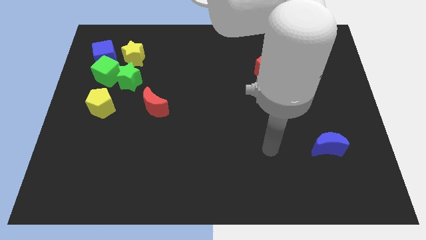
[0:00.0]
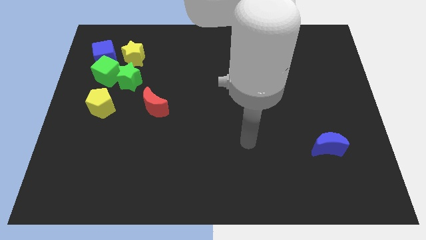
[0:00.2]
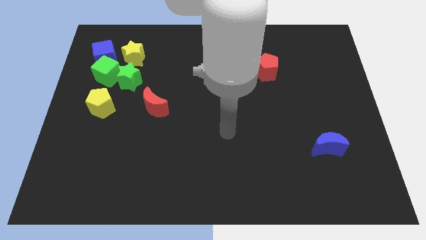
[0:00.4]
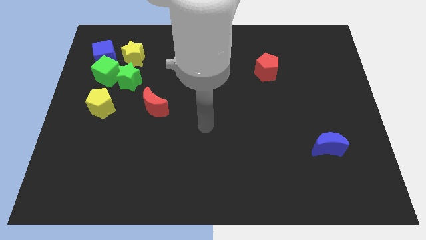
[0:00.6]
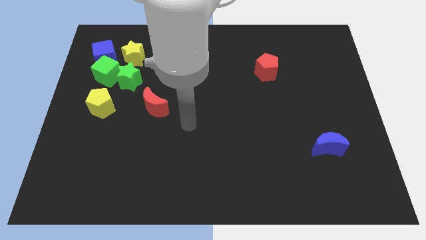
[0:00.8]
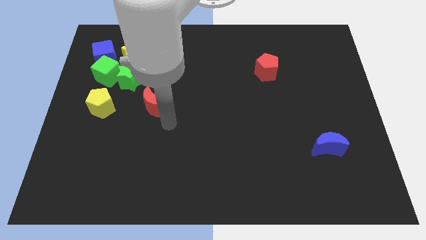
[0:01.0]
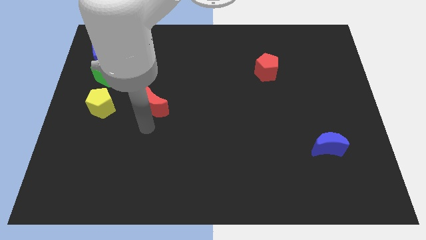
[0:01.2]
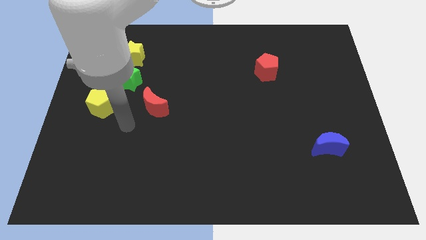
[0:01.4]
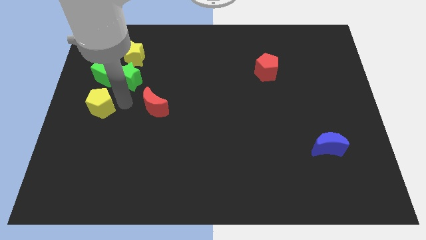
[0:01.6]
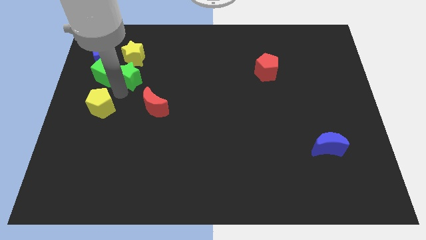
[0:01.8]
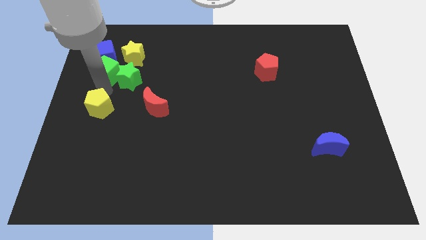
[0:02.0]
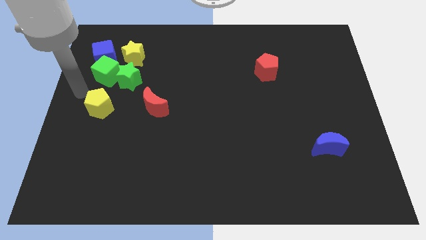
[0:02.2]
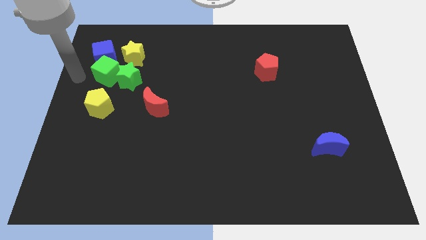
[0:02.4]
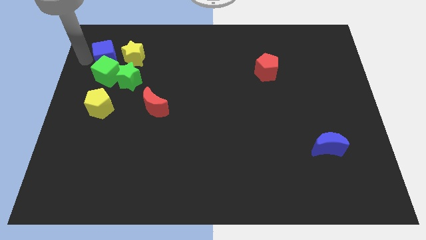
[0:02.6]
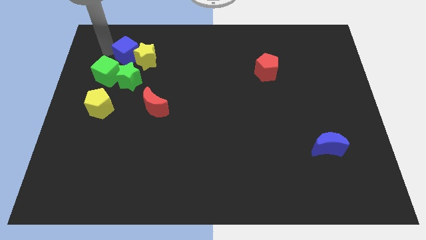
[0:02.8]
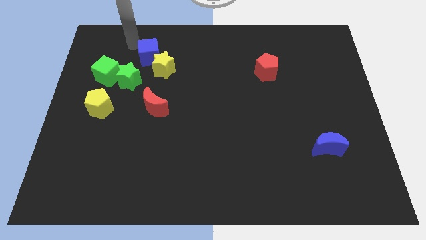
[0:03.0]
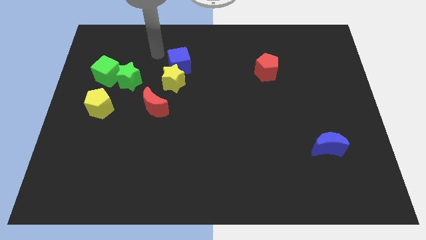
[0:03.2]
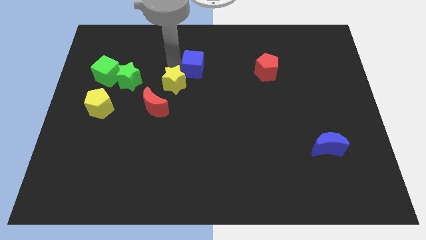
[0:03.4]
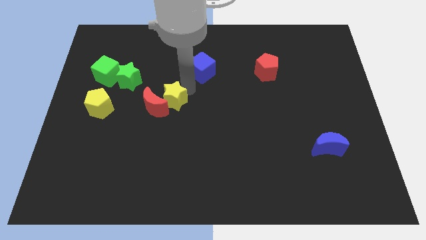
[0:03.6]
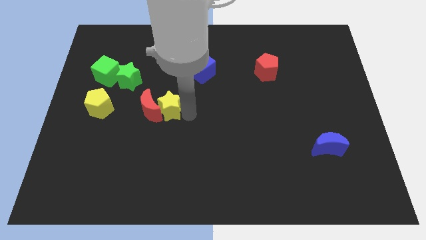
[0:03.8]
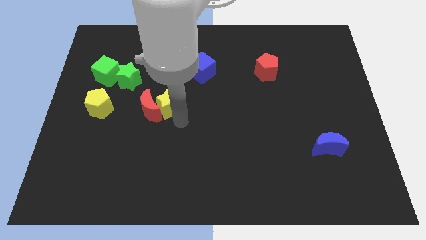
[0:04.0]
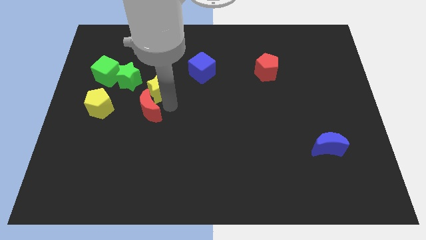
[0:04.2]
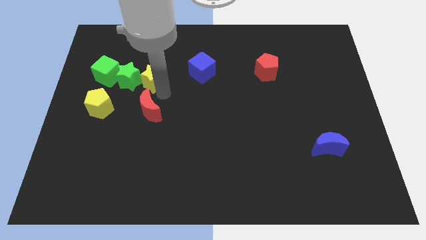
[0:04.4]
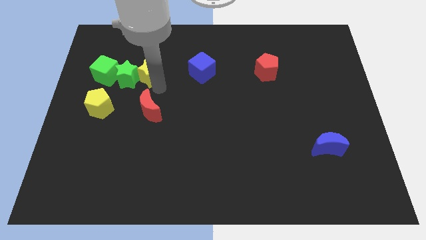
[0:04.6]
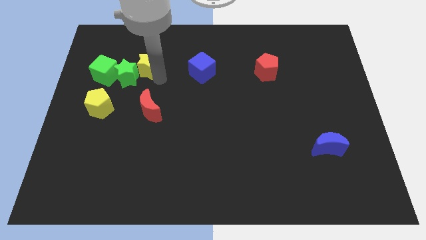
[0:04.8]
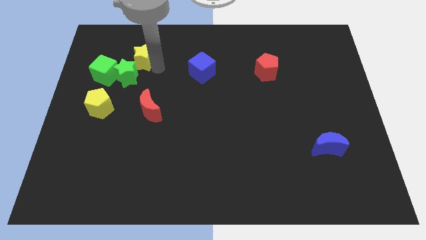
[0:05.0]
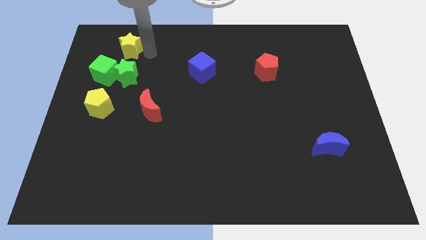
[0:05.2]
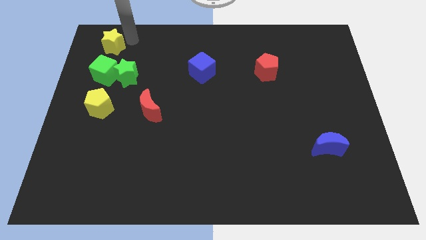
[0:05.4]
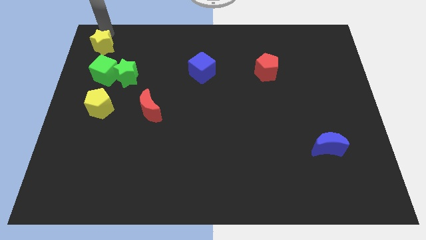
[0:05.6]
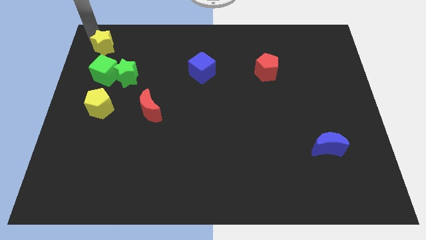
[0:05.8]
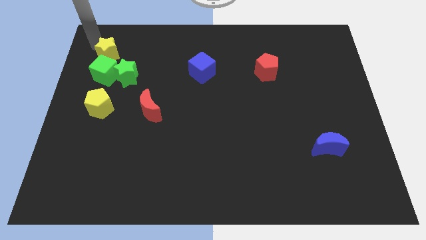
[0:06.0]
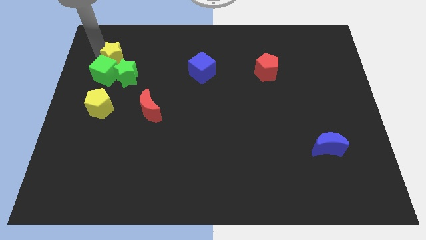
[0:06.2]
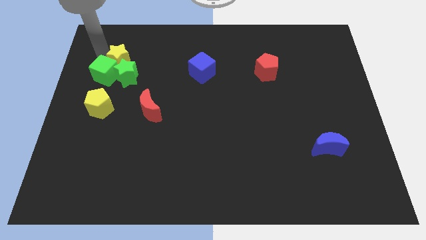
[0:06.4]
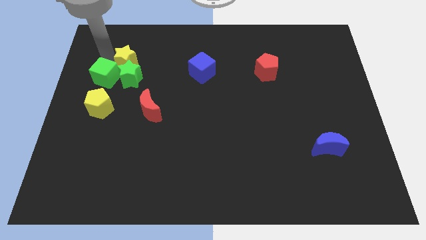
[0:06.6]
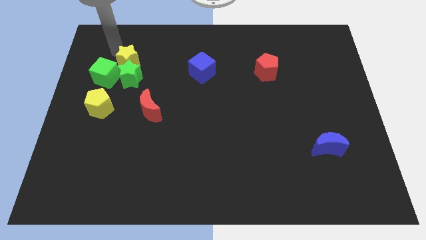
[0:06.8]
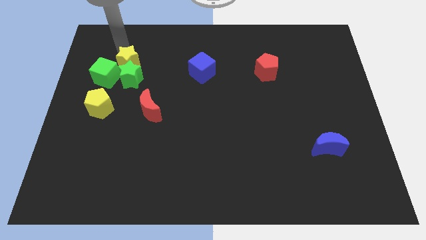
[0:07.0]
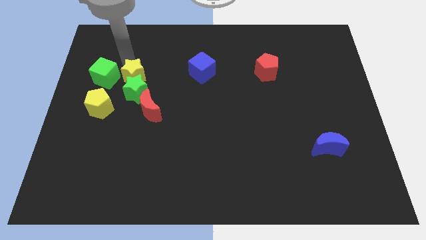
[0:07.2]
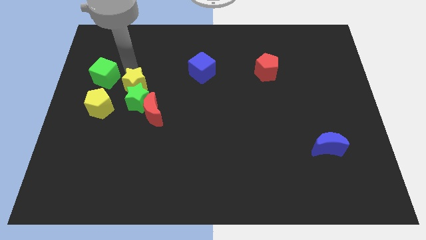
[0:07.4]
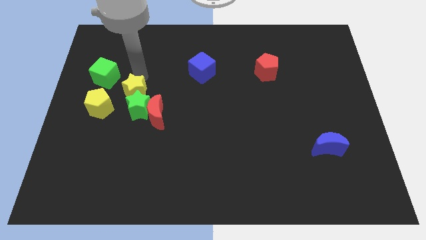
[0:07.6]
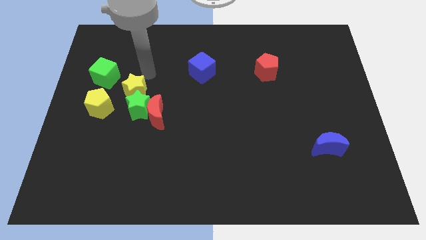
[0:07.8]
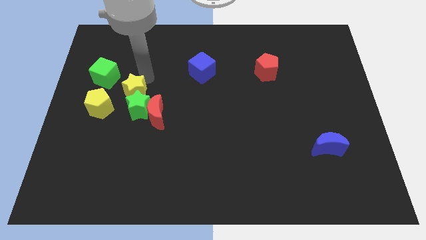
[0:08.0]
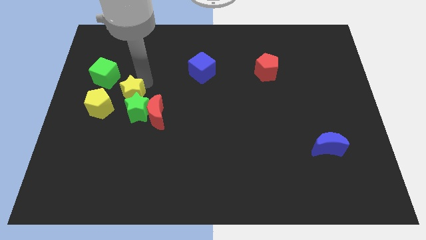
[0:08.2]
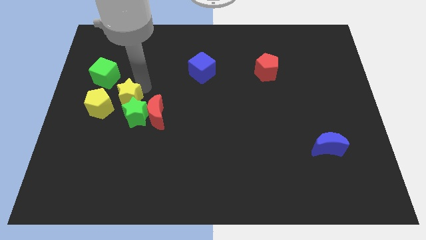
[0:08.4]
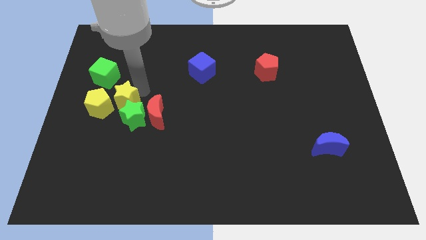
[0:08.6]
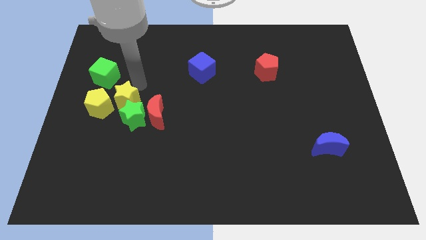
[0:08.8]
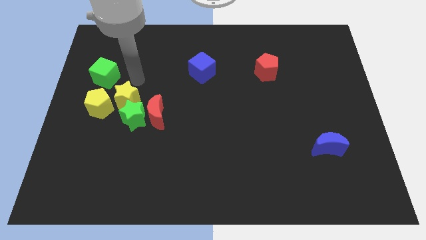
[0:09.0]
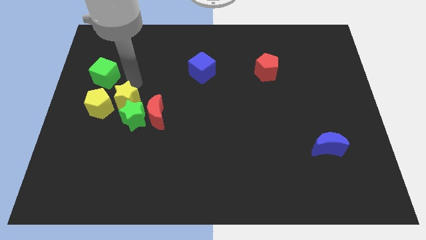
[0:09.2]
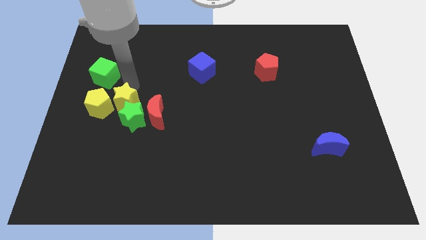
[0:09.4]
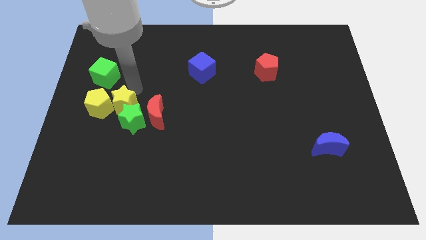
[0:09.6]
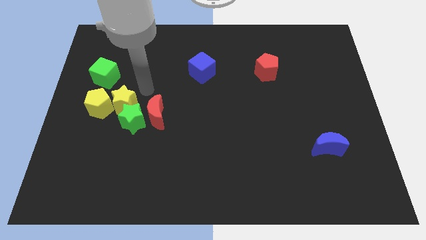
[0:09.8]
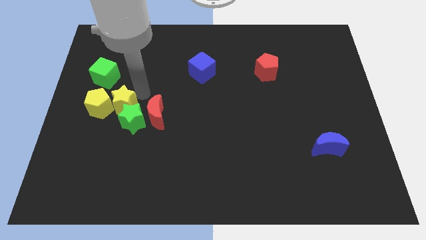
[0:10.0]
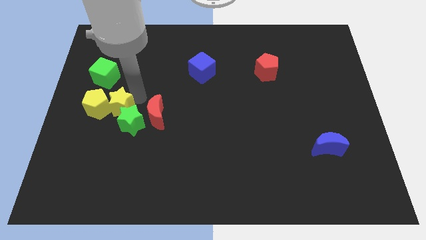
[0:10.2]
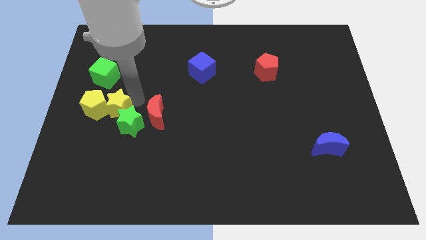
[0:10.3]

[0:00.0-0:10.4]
push the yellow star below the green cube
